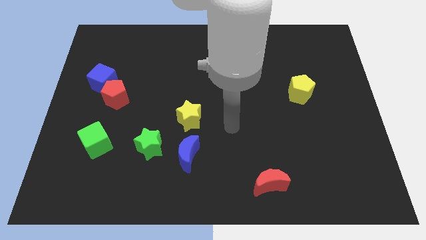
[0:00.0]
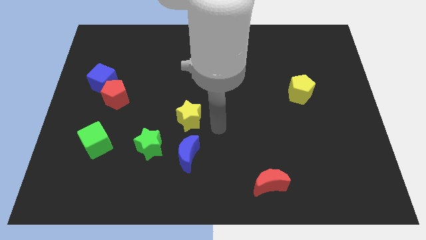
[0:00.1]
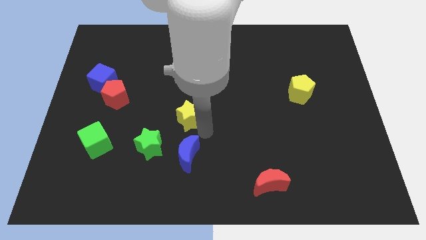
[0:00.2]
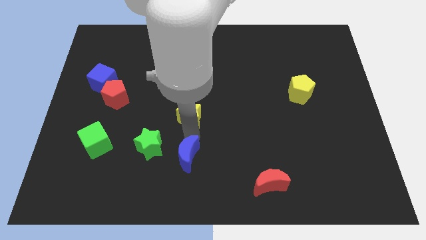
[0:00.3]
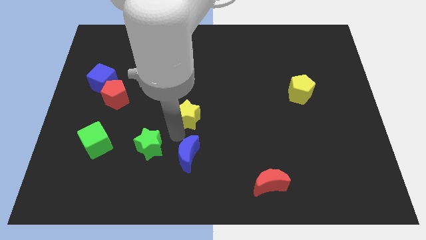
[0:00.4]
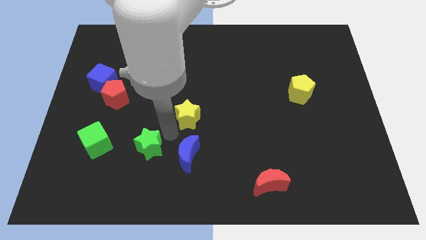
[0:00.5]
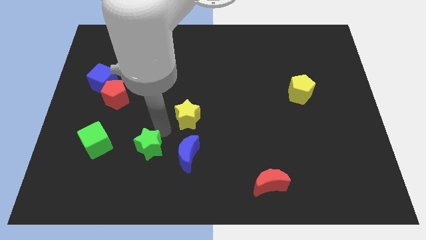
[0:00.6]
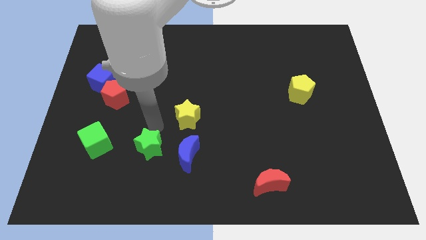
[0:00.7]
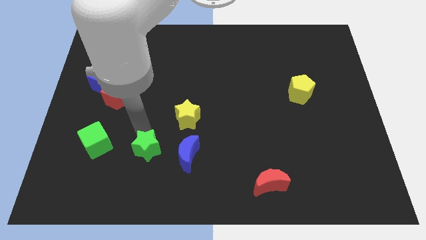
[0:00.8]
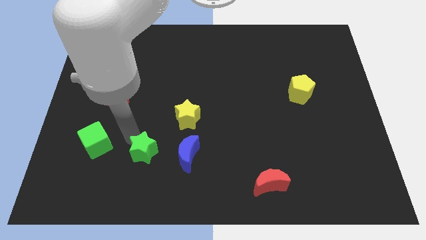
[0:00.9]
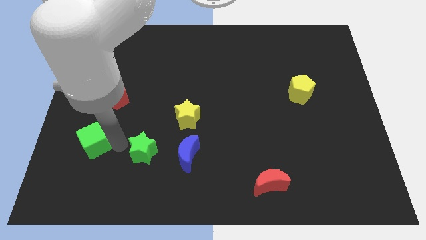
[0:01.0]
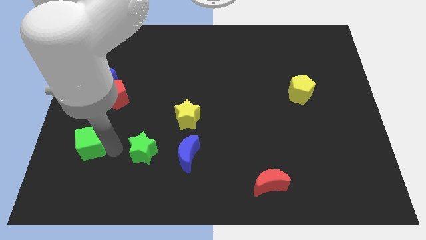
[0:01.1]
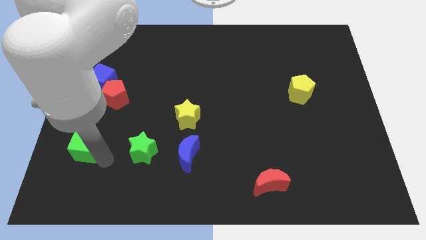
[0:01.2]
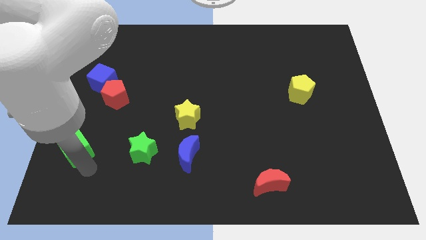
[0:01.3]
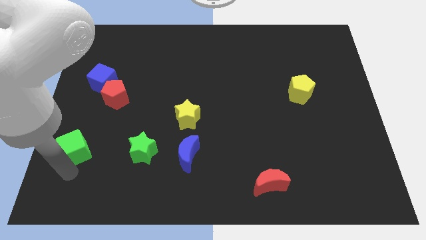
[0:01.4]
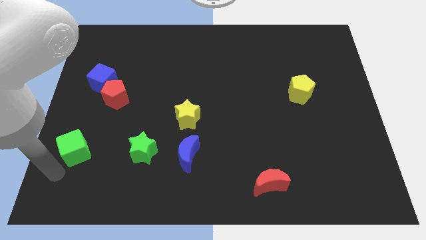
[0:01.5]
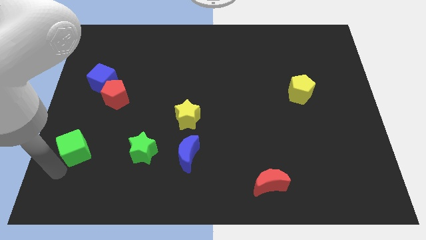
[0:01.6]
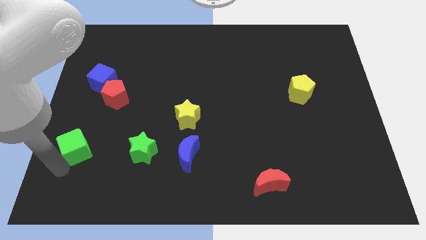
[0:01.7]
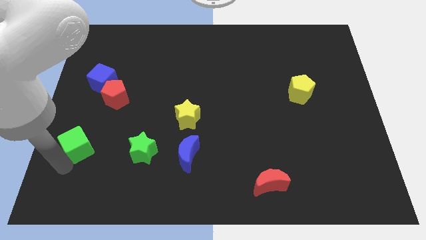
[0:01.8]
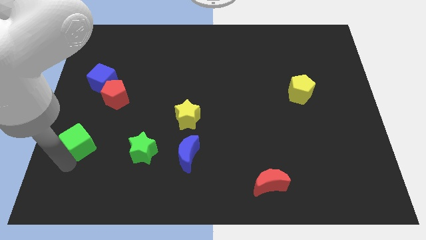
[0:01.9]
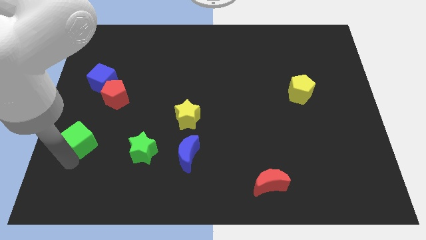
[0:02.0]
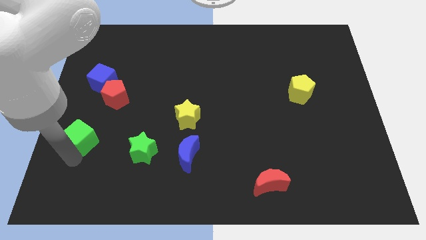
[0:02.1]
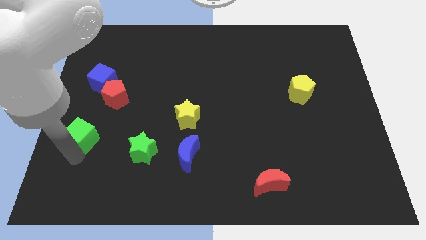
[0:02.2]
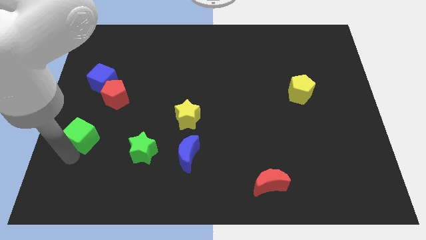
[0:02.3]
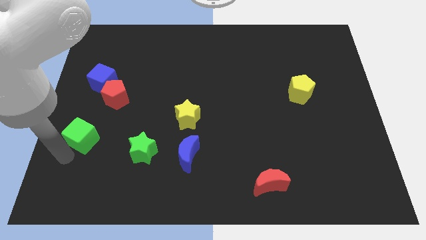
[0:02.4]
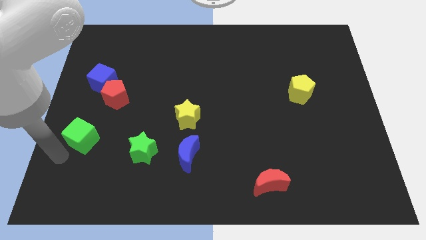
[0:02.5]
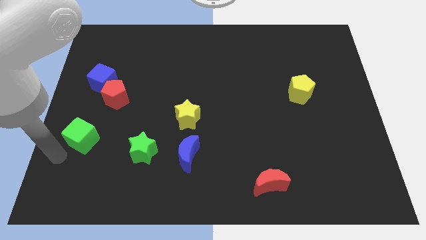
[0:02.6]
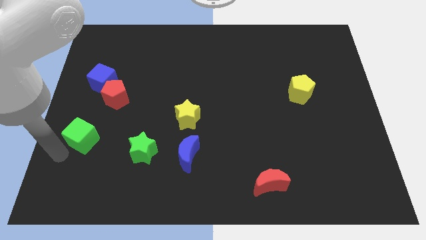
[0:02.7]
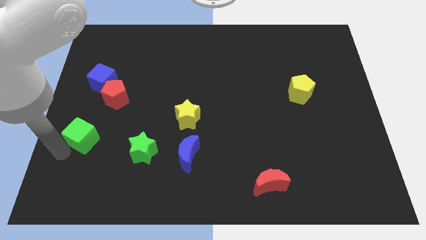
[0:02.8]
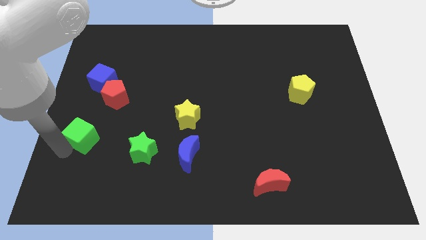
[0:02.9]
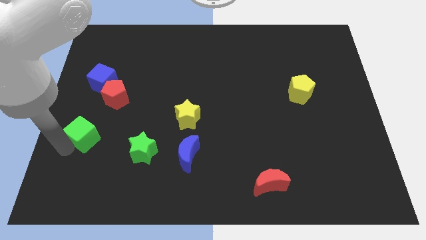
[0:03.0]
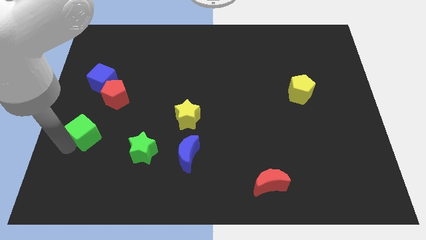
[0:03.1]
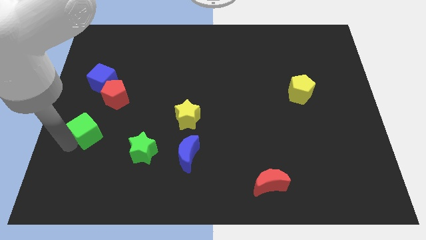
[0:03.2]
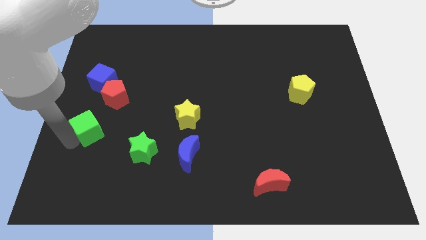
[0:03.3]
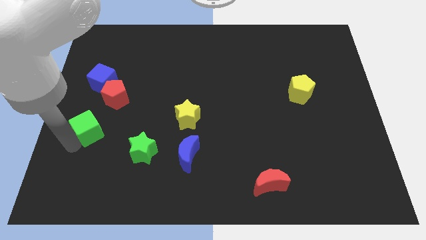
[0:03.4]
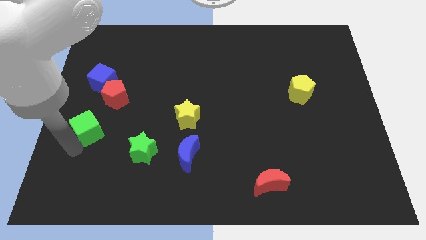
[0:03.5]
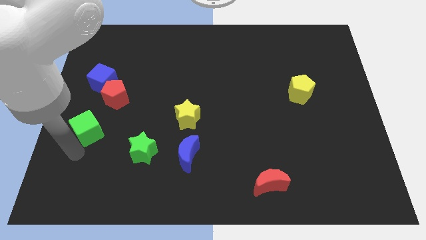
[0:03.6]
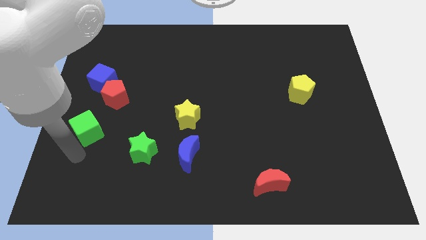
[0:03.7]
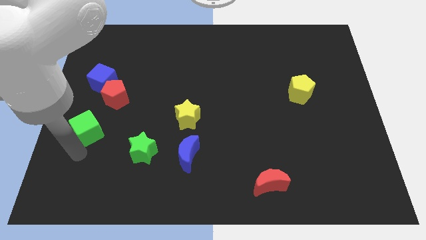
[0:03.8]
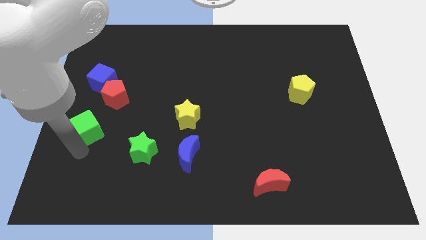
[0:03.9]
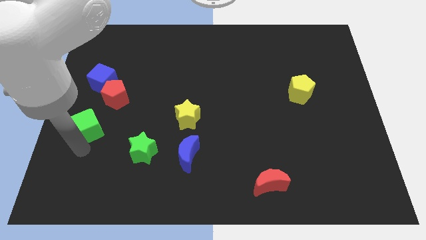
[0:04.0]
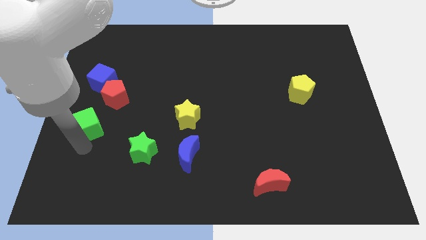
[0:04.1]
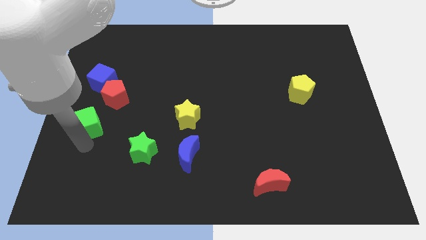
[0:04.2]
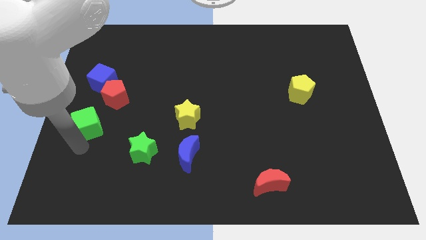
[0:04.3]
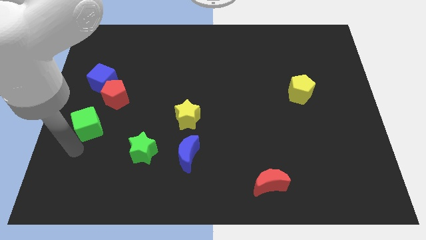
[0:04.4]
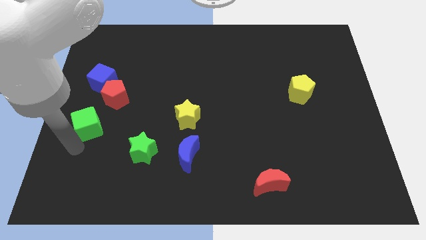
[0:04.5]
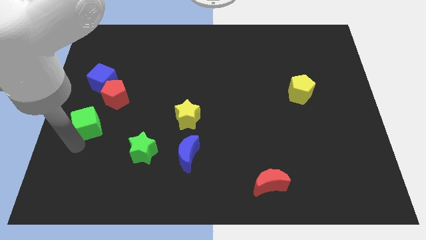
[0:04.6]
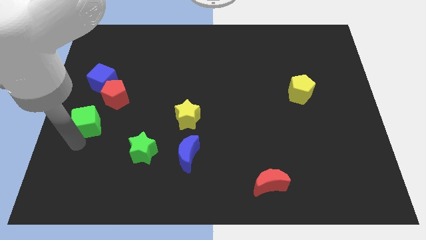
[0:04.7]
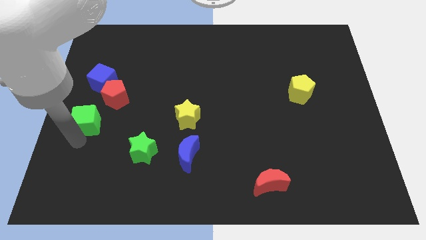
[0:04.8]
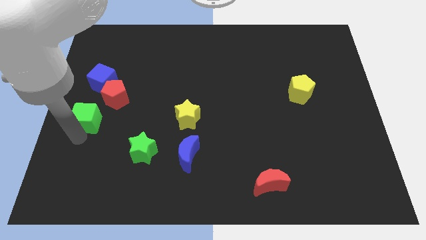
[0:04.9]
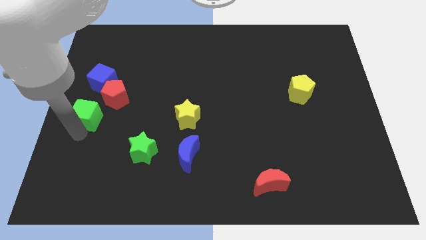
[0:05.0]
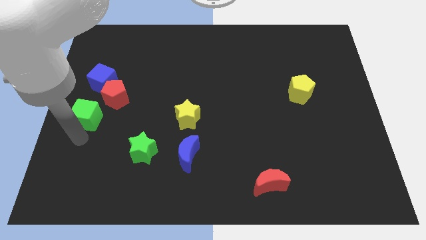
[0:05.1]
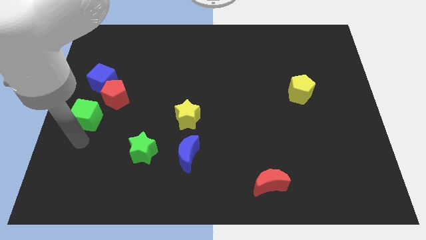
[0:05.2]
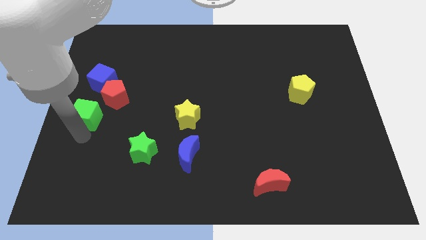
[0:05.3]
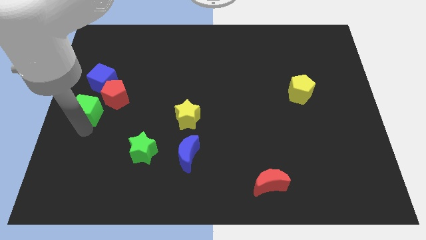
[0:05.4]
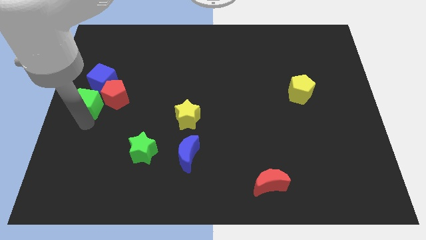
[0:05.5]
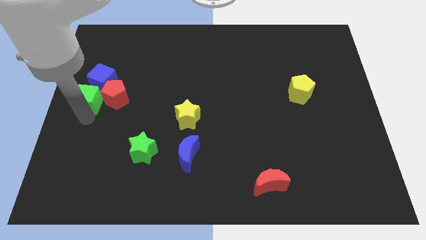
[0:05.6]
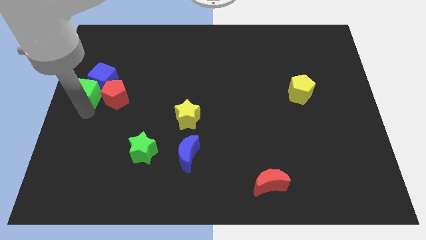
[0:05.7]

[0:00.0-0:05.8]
push the green cube close to the blue cube

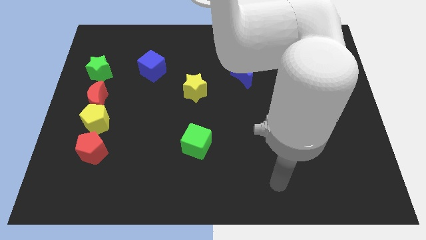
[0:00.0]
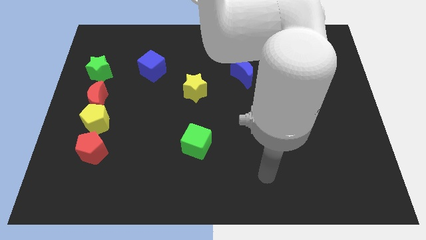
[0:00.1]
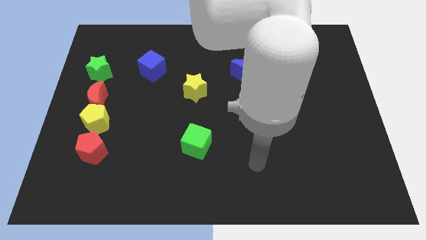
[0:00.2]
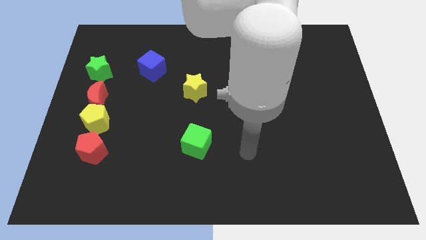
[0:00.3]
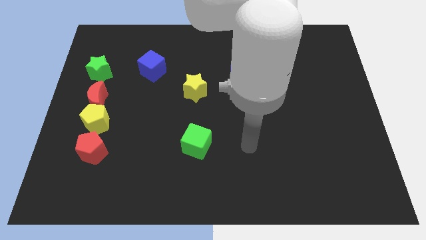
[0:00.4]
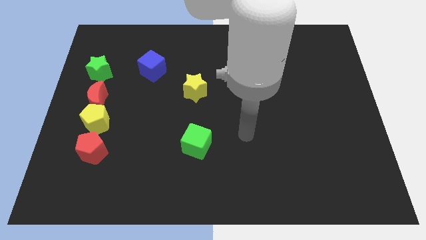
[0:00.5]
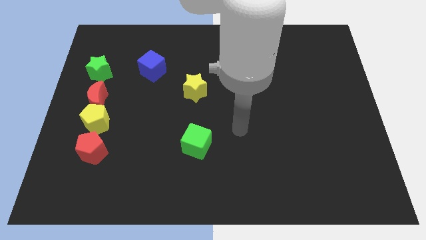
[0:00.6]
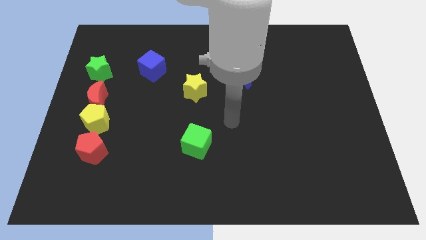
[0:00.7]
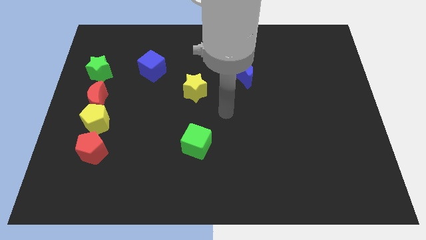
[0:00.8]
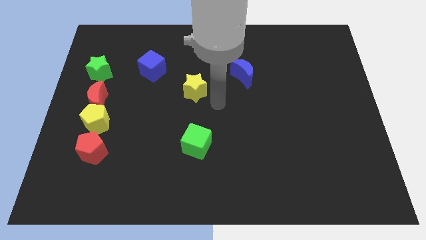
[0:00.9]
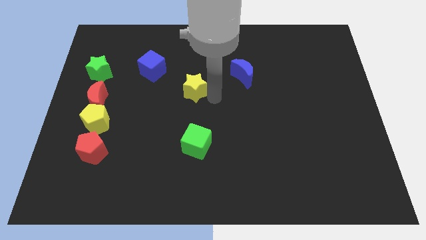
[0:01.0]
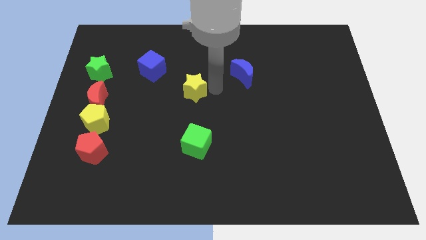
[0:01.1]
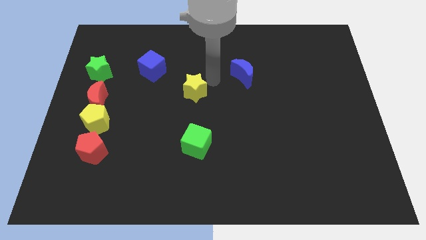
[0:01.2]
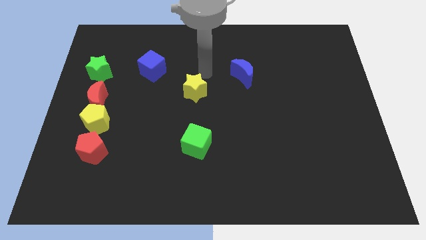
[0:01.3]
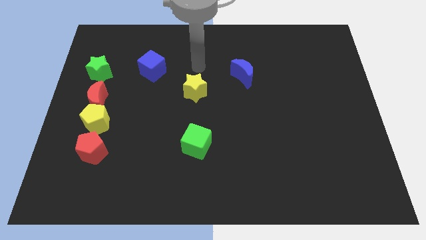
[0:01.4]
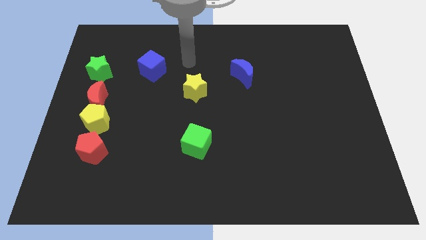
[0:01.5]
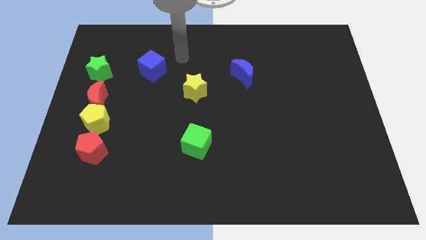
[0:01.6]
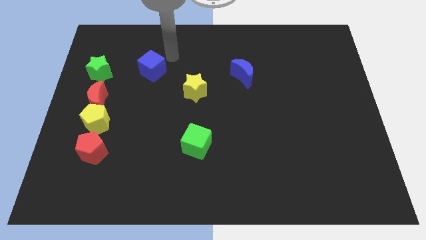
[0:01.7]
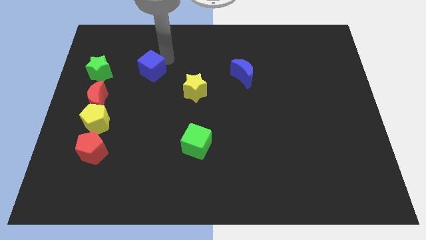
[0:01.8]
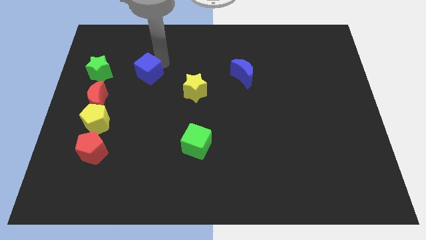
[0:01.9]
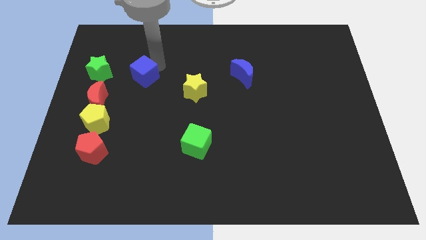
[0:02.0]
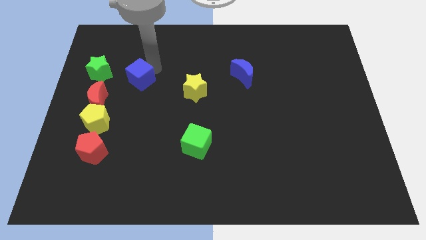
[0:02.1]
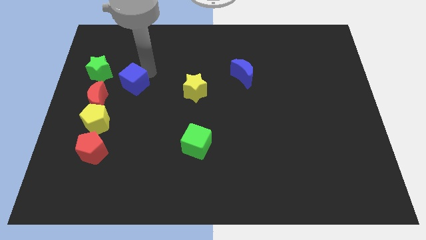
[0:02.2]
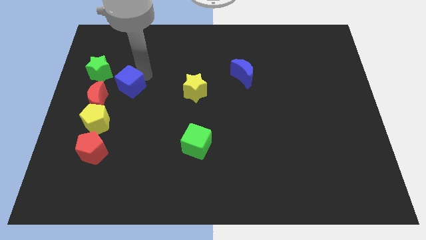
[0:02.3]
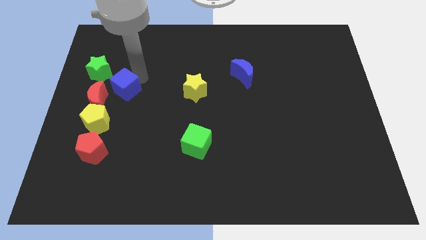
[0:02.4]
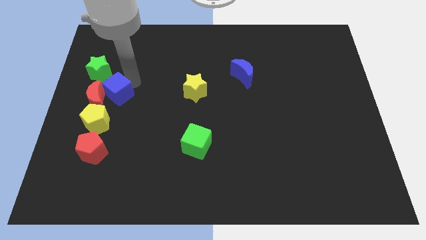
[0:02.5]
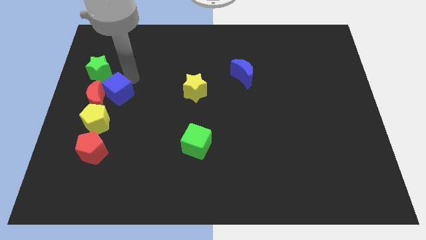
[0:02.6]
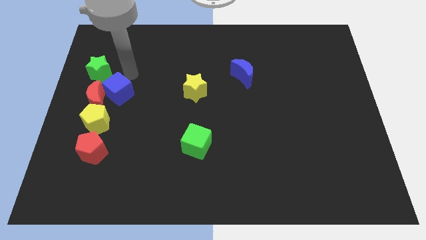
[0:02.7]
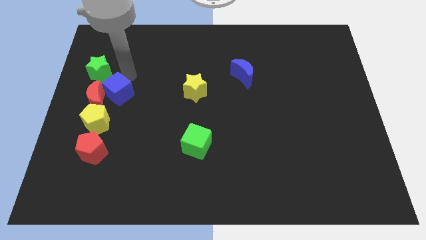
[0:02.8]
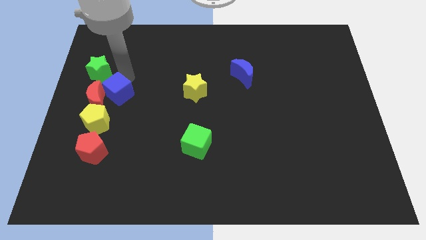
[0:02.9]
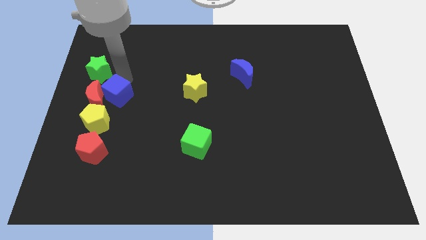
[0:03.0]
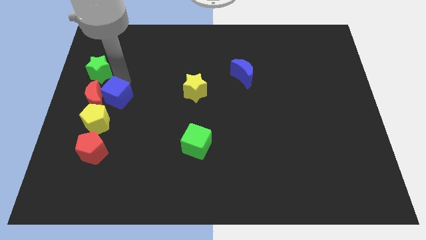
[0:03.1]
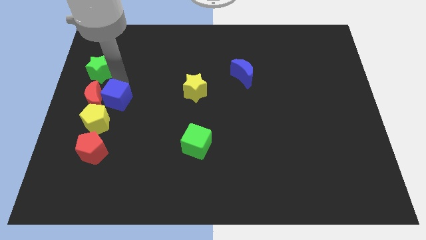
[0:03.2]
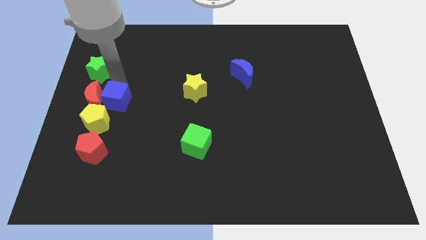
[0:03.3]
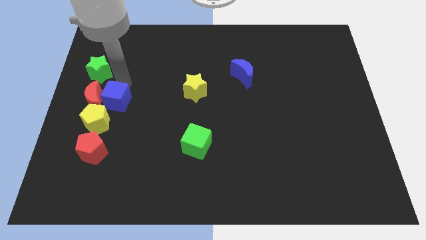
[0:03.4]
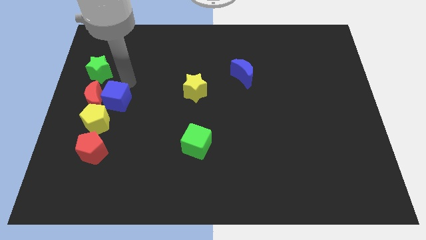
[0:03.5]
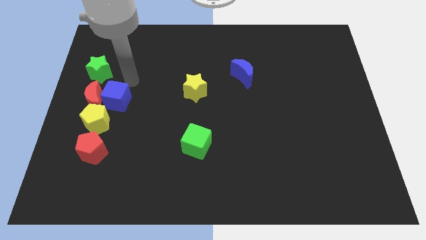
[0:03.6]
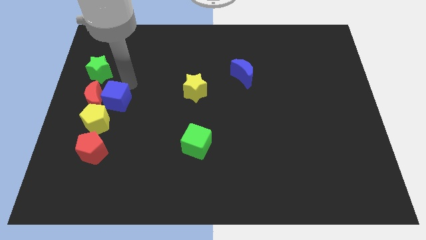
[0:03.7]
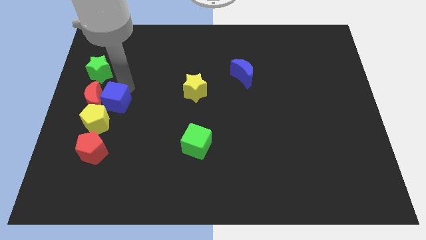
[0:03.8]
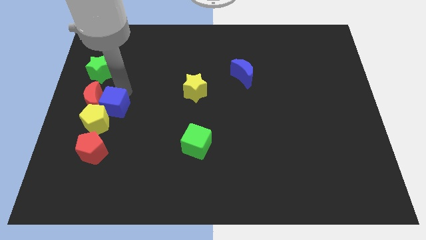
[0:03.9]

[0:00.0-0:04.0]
move the blue cube towards the yellow pentagon
